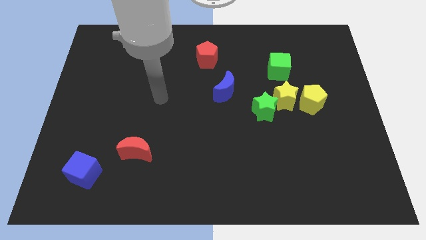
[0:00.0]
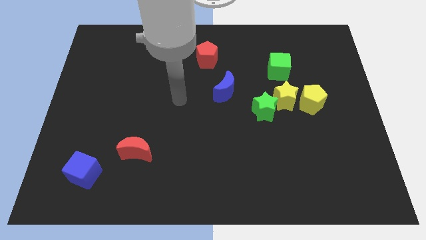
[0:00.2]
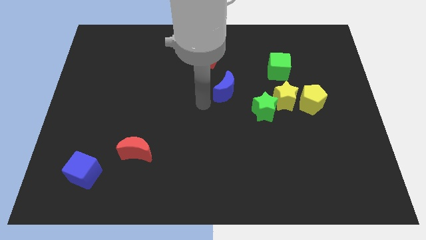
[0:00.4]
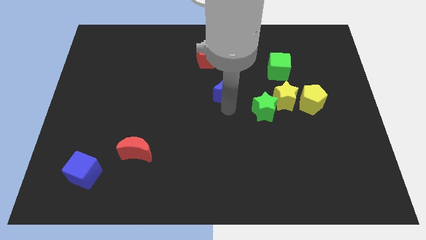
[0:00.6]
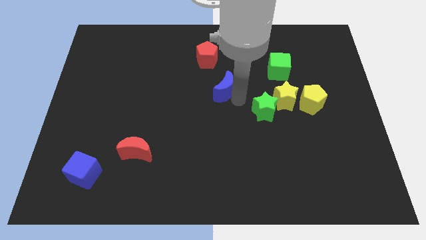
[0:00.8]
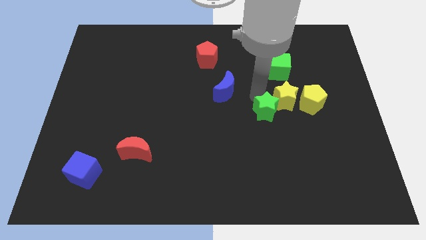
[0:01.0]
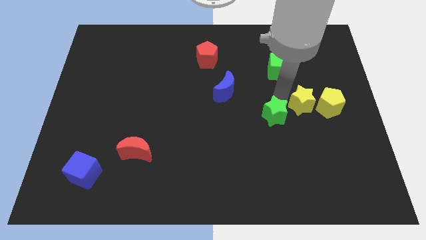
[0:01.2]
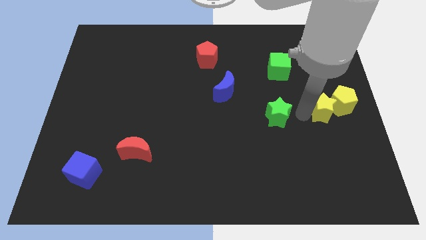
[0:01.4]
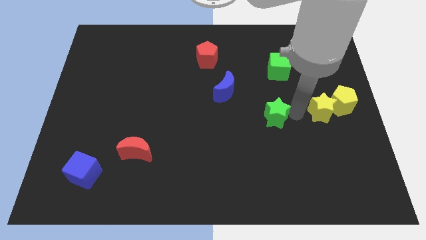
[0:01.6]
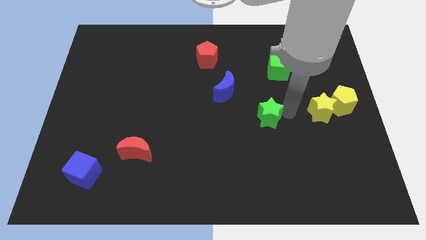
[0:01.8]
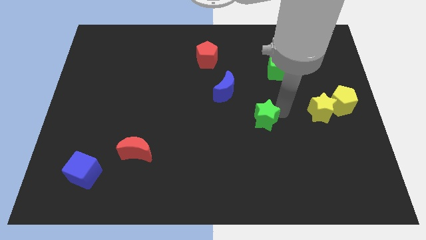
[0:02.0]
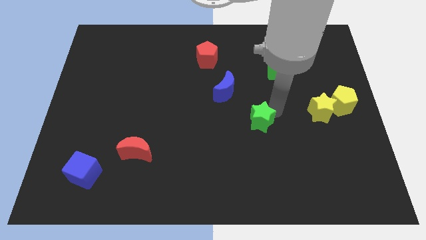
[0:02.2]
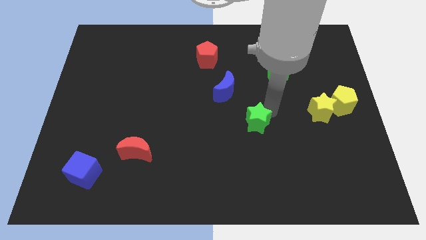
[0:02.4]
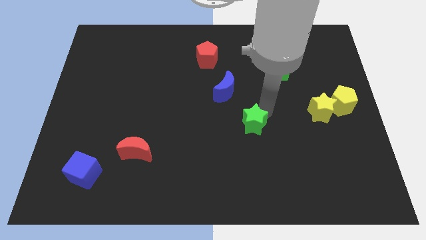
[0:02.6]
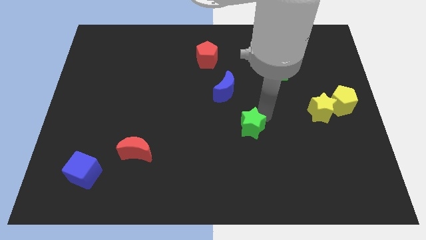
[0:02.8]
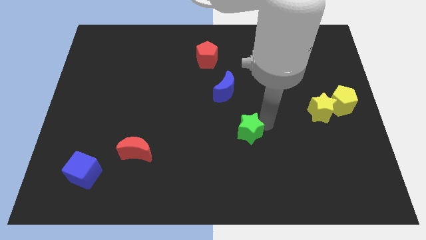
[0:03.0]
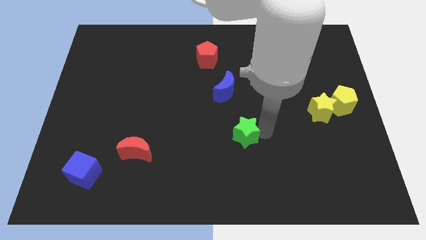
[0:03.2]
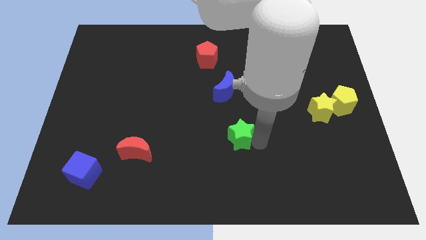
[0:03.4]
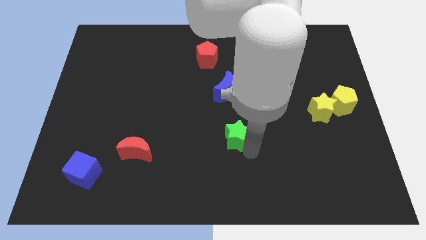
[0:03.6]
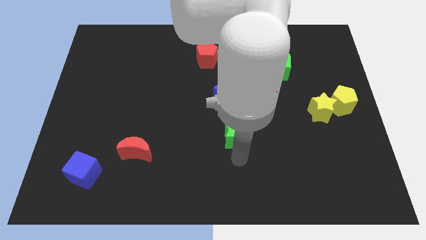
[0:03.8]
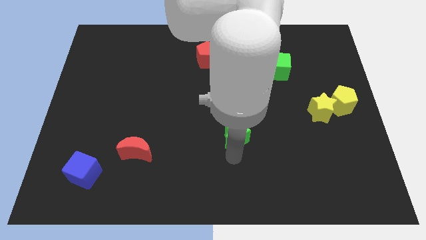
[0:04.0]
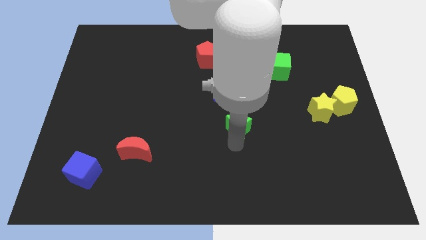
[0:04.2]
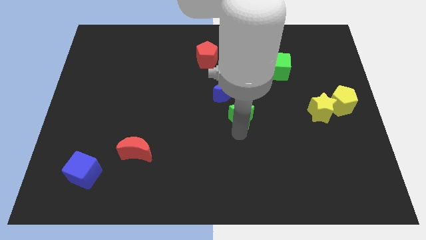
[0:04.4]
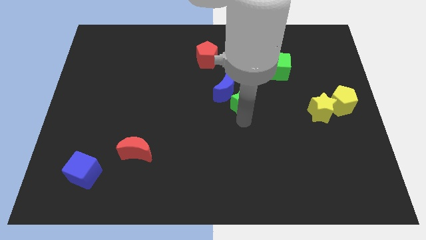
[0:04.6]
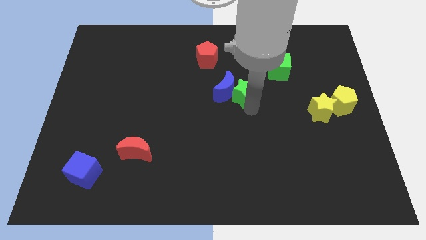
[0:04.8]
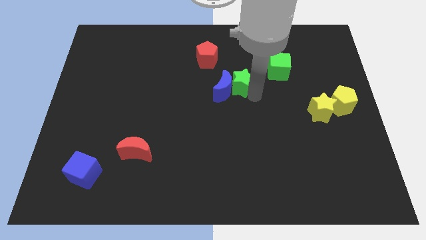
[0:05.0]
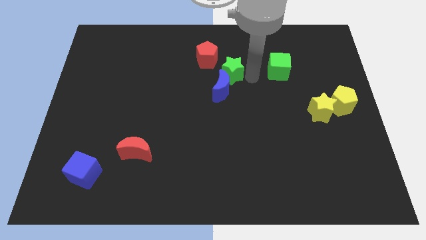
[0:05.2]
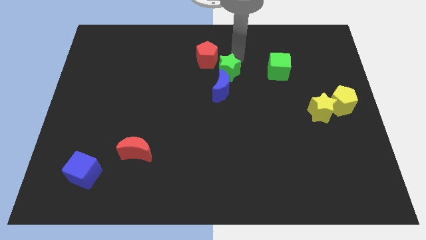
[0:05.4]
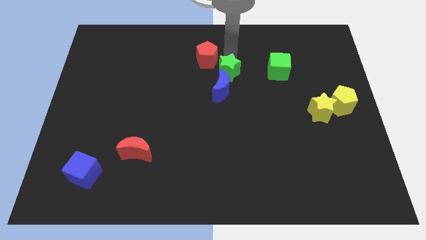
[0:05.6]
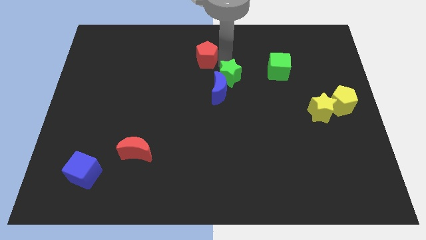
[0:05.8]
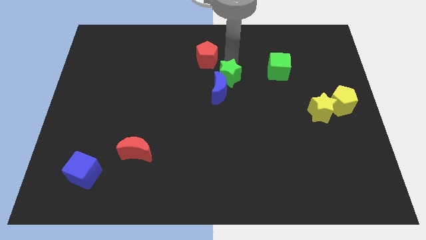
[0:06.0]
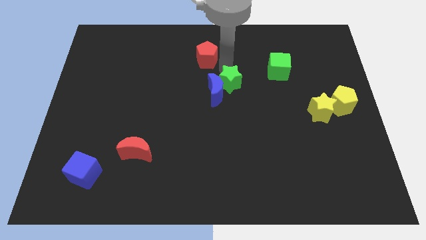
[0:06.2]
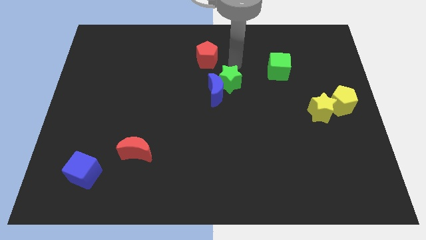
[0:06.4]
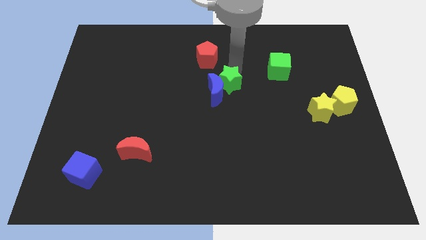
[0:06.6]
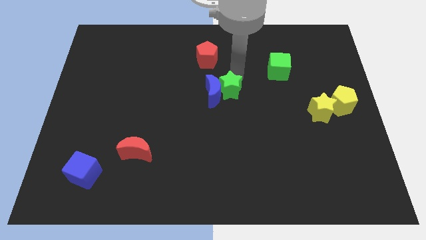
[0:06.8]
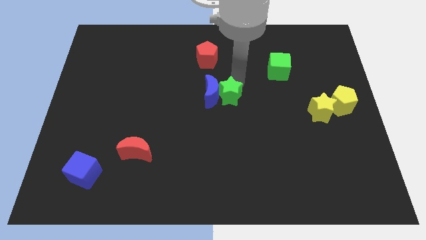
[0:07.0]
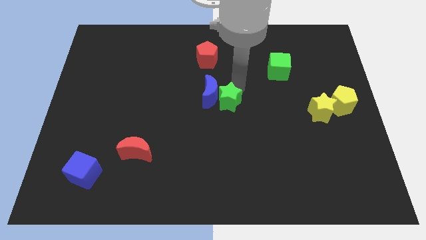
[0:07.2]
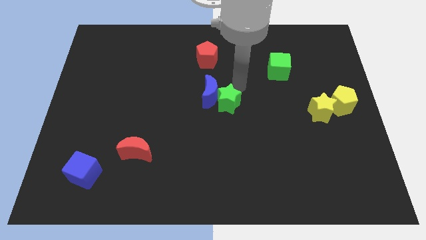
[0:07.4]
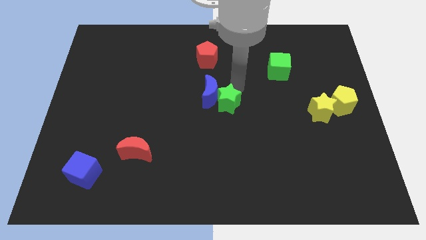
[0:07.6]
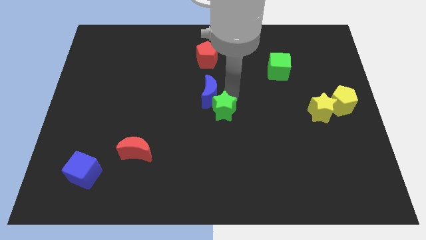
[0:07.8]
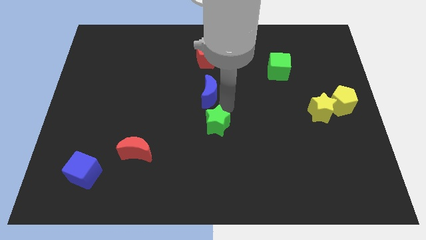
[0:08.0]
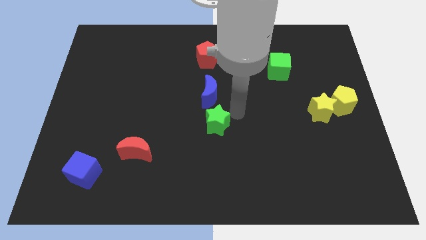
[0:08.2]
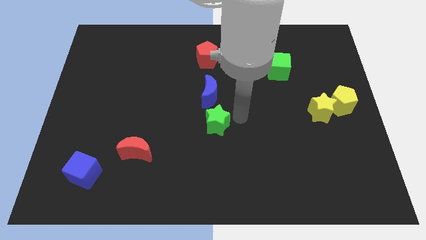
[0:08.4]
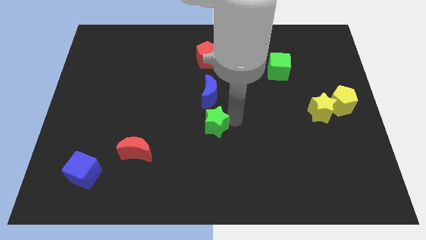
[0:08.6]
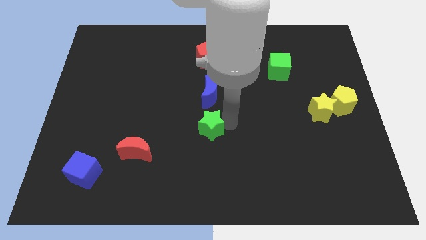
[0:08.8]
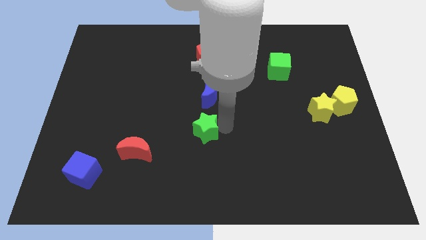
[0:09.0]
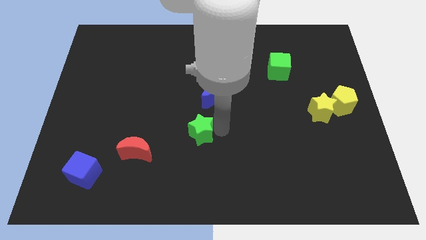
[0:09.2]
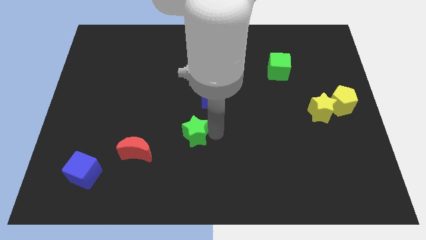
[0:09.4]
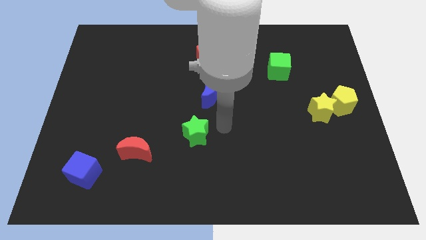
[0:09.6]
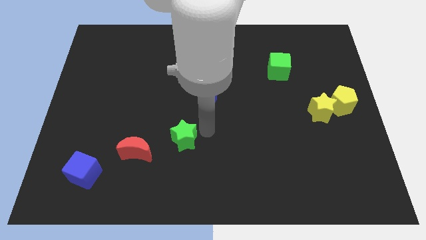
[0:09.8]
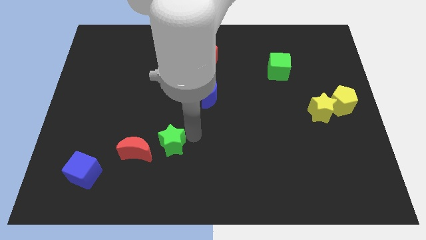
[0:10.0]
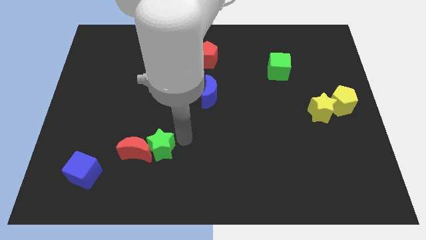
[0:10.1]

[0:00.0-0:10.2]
put the green star to the red moon

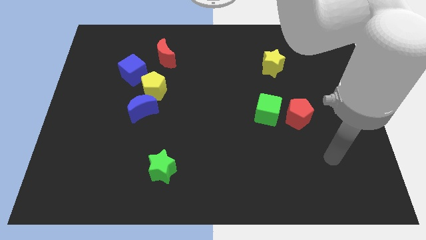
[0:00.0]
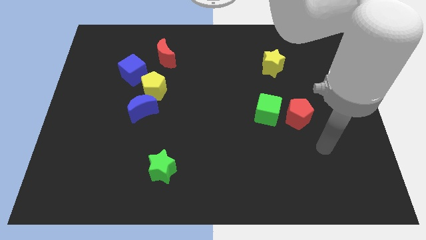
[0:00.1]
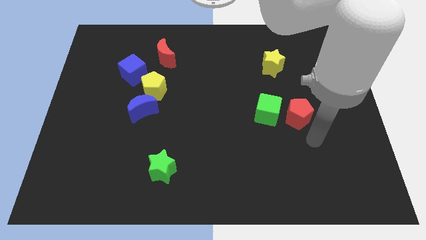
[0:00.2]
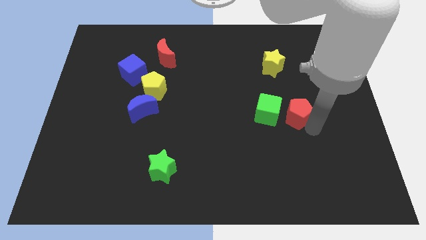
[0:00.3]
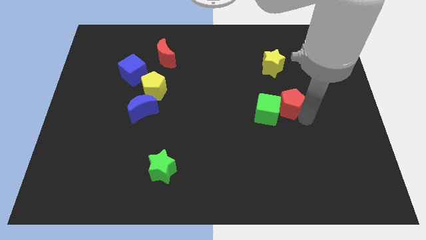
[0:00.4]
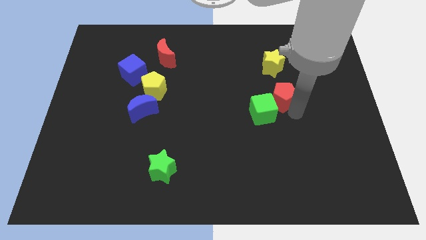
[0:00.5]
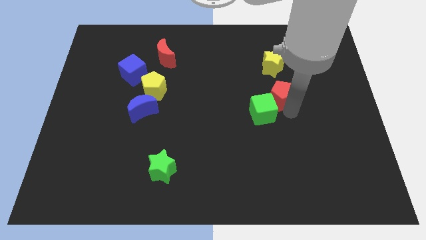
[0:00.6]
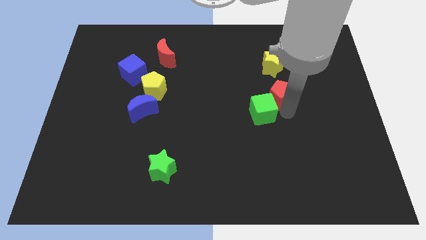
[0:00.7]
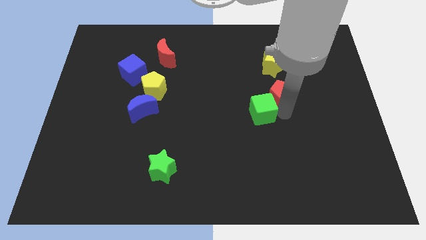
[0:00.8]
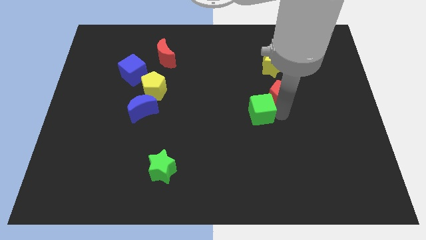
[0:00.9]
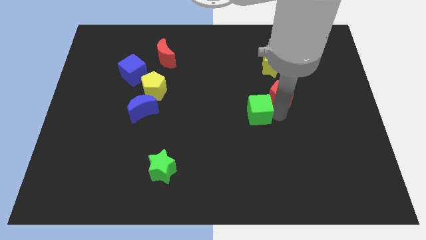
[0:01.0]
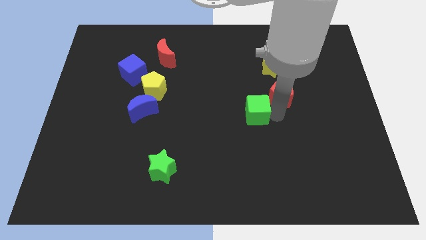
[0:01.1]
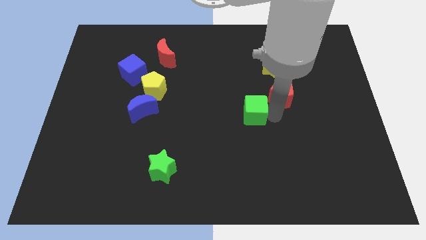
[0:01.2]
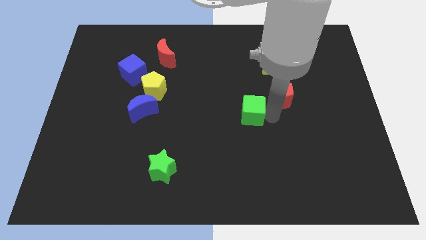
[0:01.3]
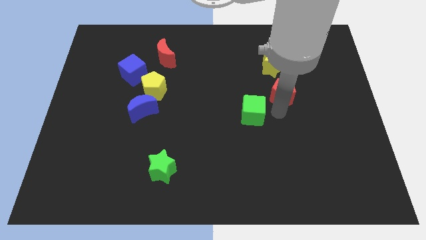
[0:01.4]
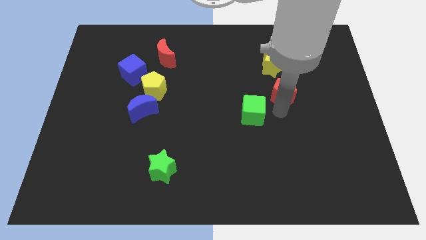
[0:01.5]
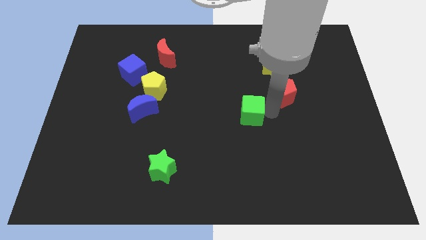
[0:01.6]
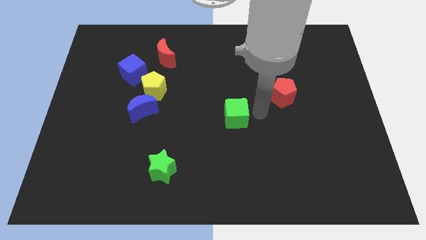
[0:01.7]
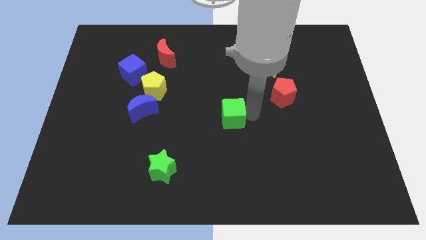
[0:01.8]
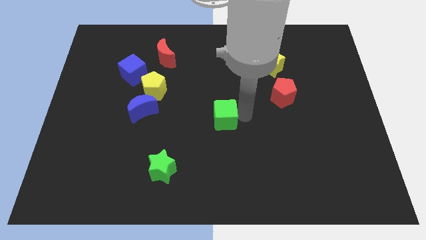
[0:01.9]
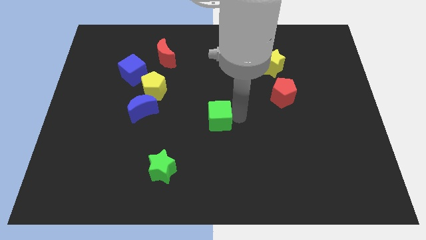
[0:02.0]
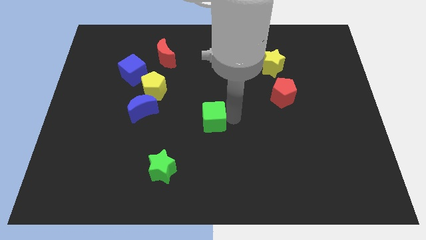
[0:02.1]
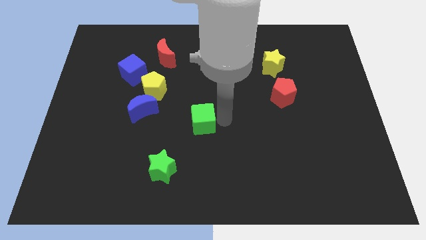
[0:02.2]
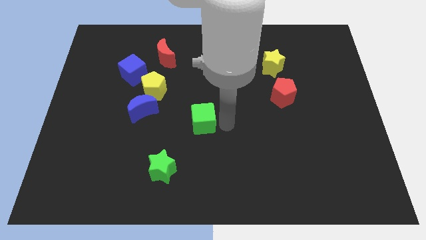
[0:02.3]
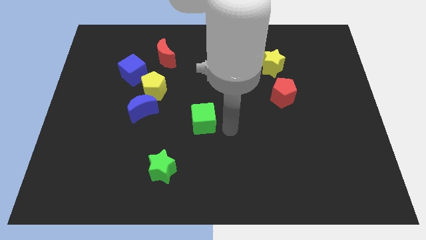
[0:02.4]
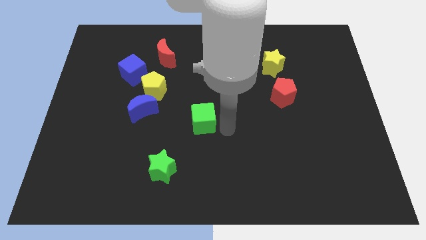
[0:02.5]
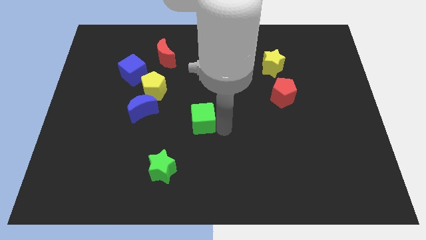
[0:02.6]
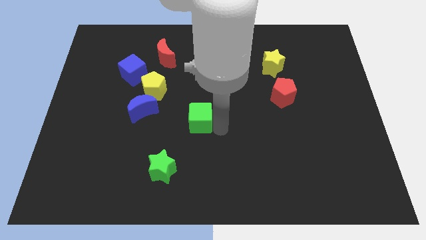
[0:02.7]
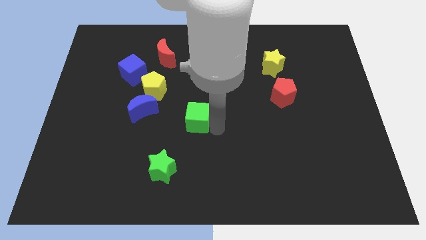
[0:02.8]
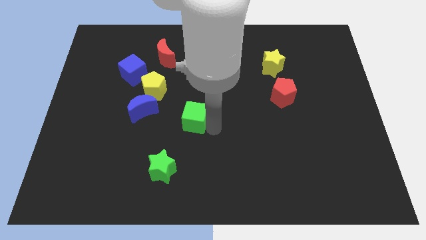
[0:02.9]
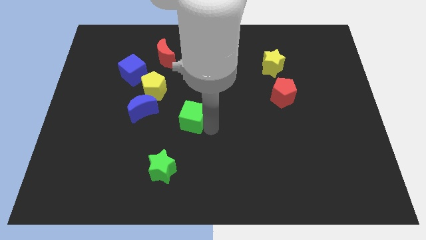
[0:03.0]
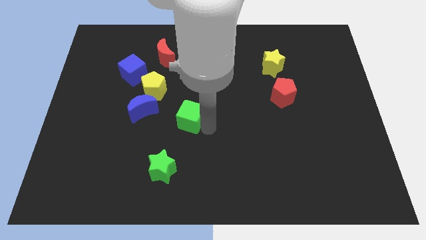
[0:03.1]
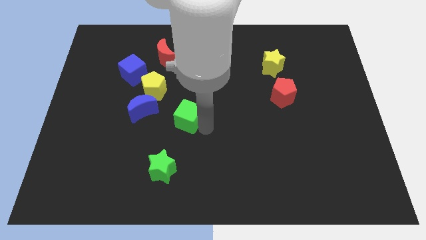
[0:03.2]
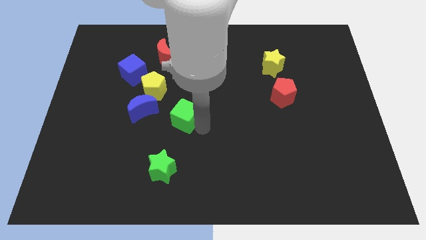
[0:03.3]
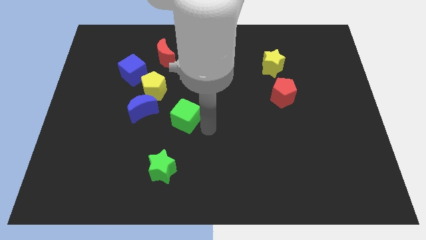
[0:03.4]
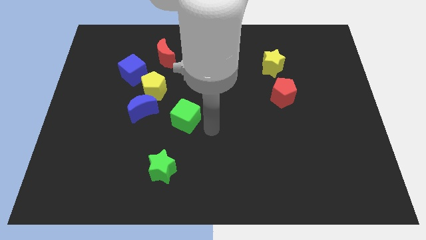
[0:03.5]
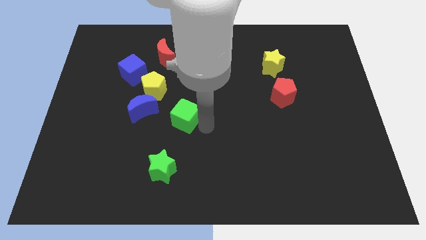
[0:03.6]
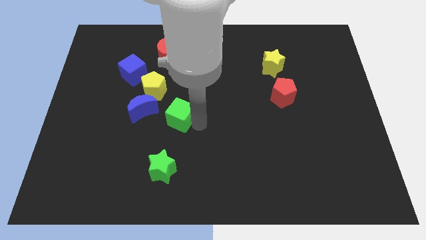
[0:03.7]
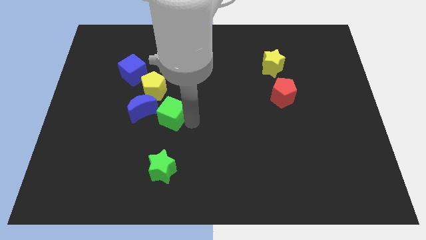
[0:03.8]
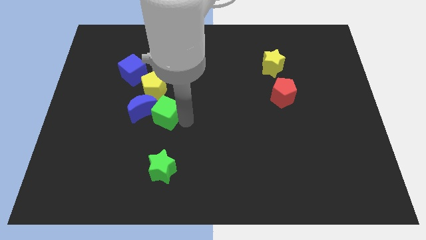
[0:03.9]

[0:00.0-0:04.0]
put the green cube next to the blue moon
